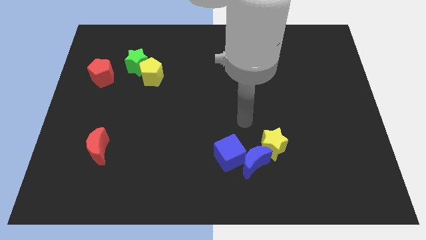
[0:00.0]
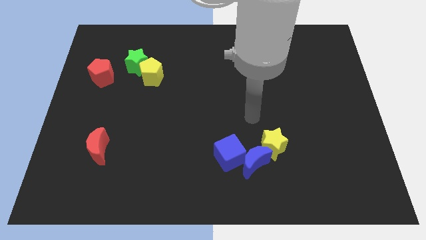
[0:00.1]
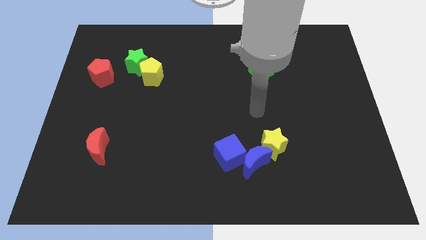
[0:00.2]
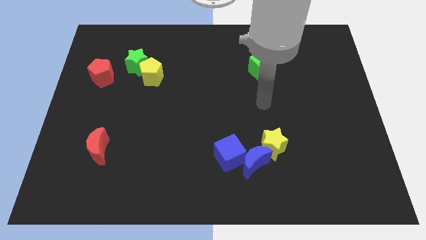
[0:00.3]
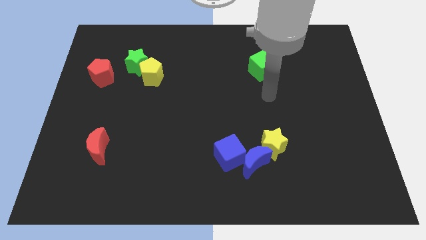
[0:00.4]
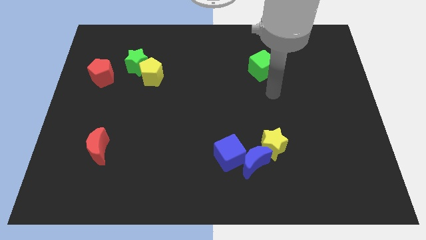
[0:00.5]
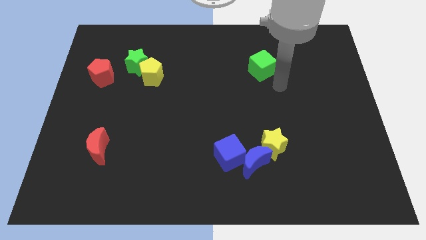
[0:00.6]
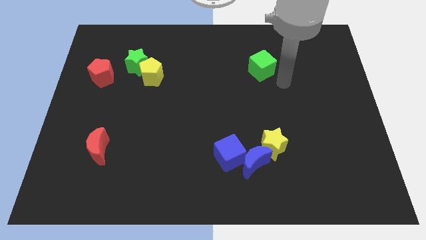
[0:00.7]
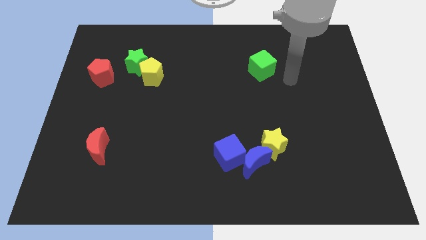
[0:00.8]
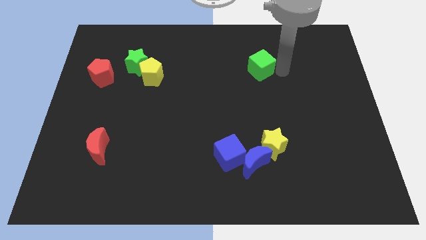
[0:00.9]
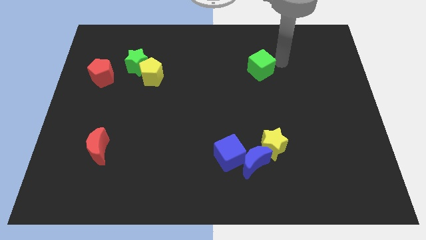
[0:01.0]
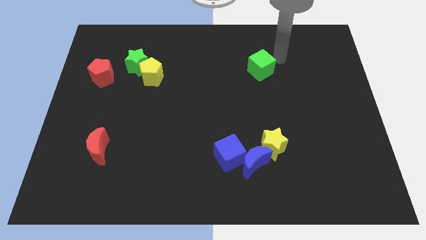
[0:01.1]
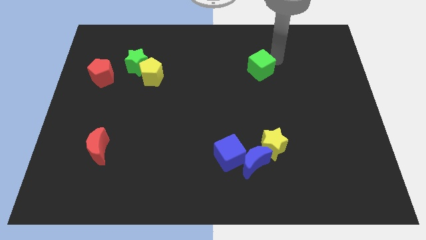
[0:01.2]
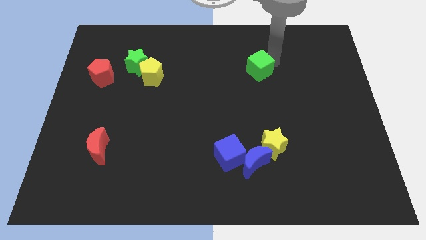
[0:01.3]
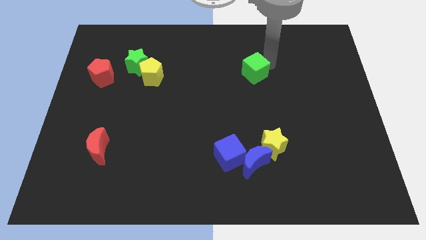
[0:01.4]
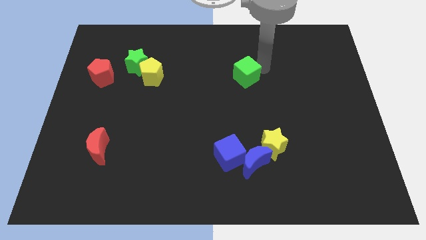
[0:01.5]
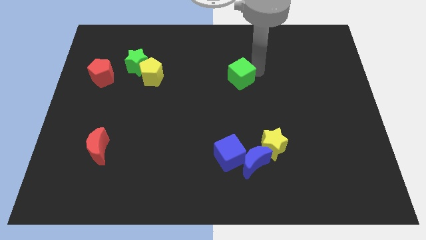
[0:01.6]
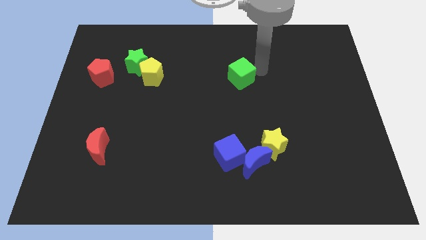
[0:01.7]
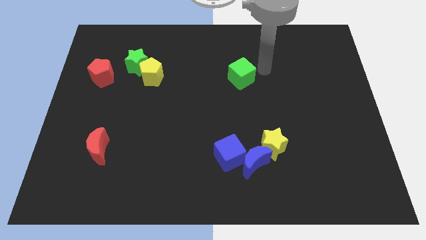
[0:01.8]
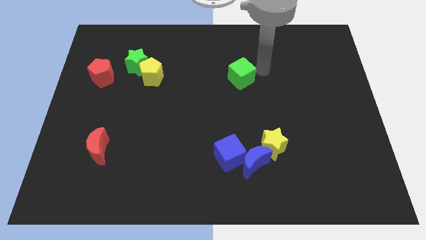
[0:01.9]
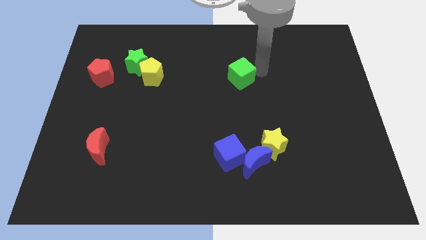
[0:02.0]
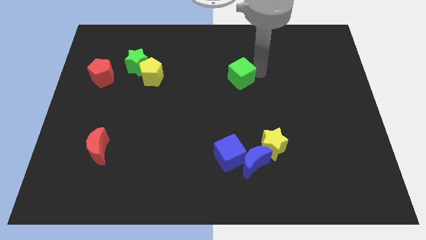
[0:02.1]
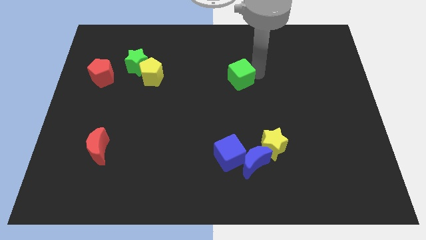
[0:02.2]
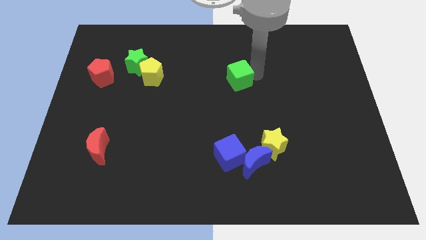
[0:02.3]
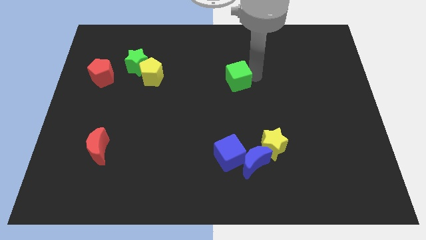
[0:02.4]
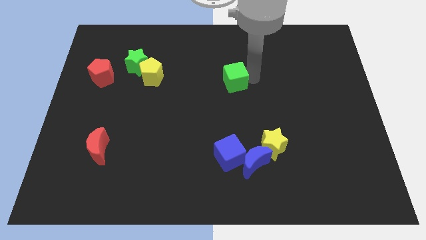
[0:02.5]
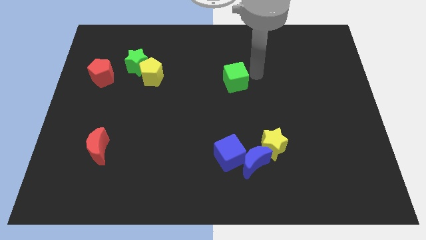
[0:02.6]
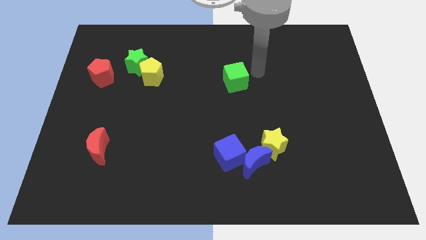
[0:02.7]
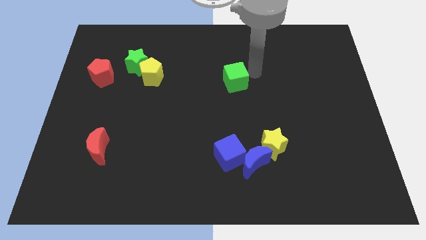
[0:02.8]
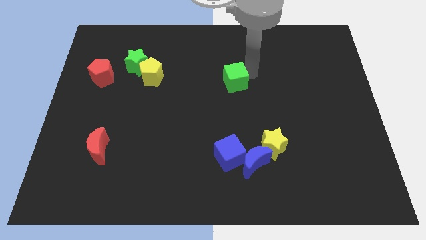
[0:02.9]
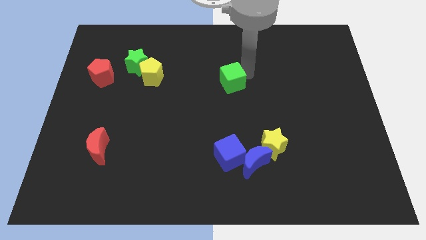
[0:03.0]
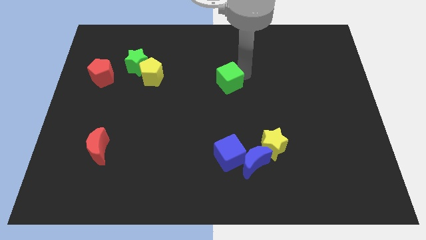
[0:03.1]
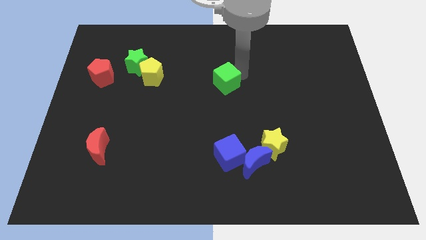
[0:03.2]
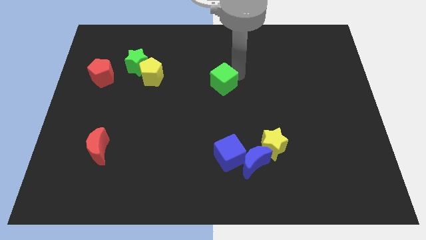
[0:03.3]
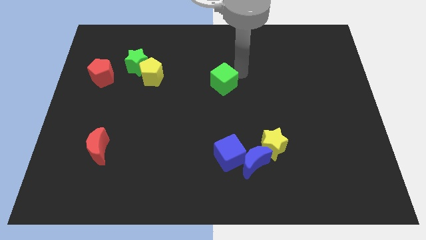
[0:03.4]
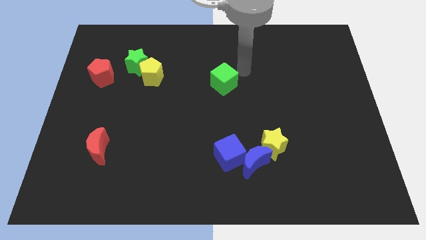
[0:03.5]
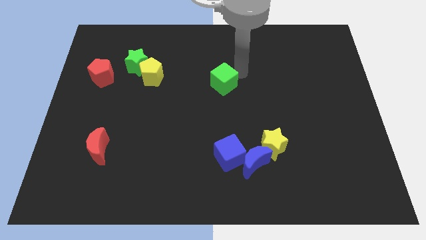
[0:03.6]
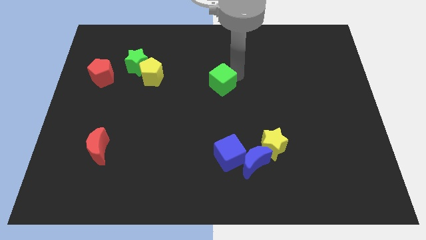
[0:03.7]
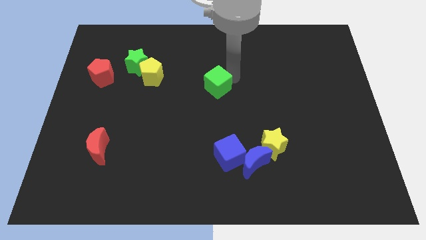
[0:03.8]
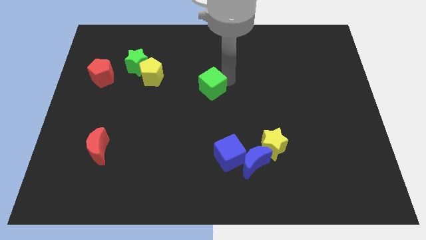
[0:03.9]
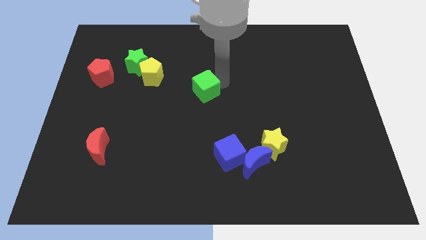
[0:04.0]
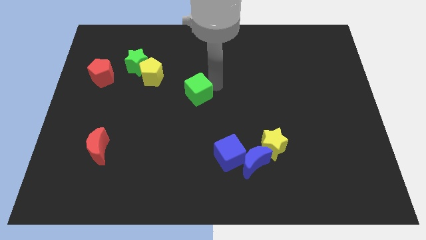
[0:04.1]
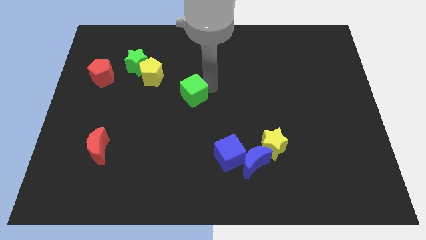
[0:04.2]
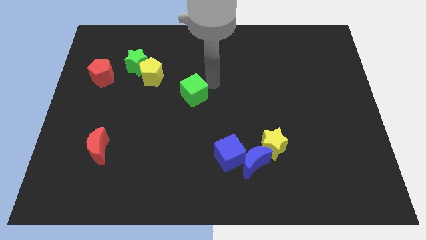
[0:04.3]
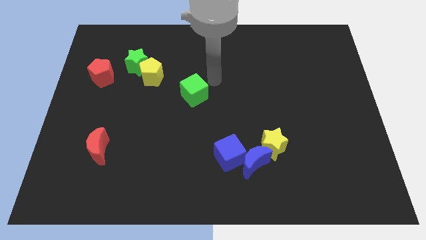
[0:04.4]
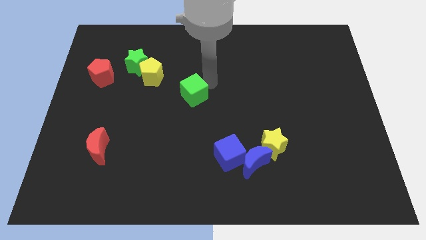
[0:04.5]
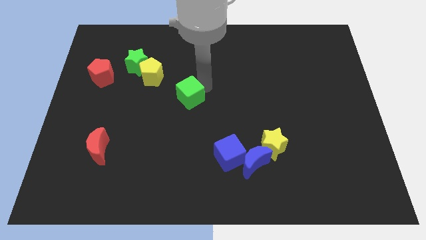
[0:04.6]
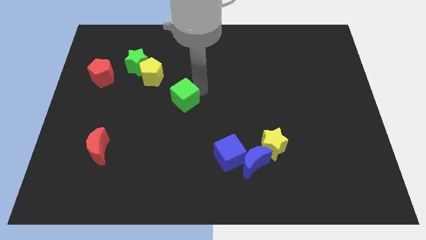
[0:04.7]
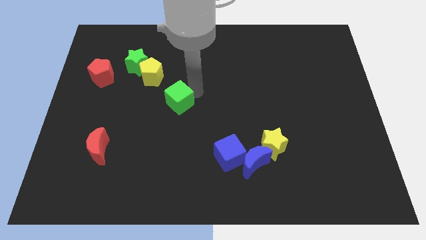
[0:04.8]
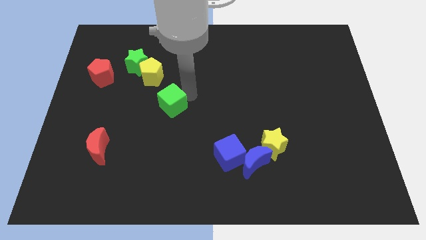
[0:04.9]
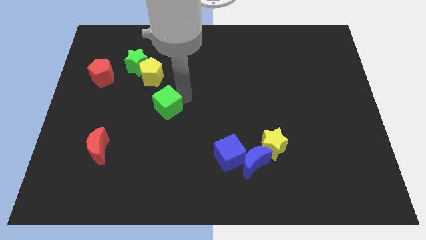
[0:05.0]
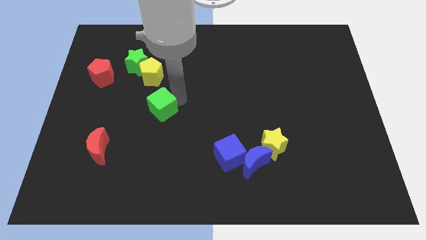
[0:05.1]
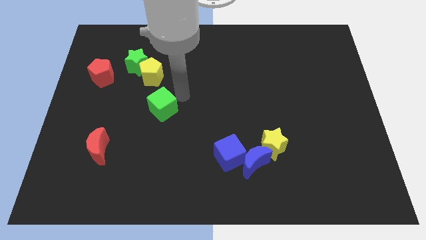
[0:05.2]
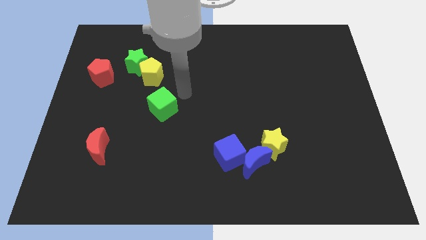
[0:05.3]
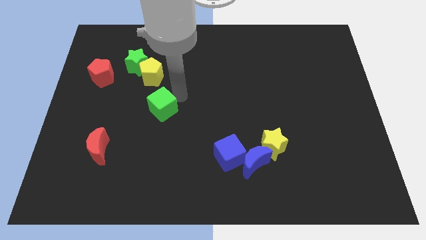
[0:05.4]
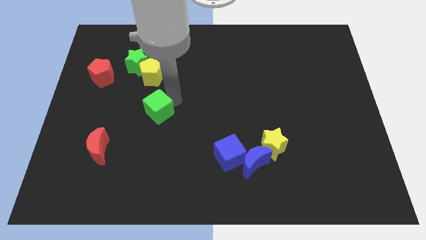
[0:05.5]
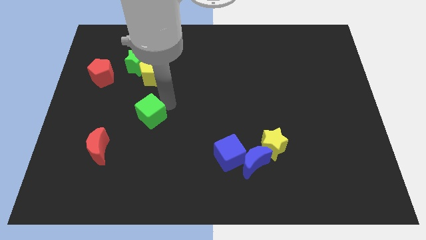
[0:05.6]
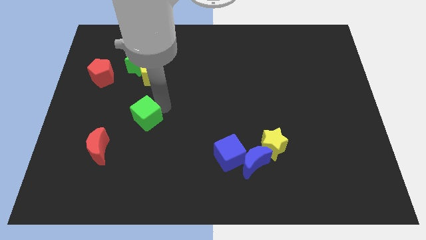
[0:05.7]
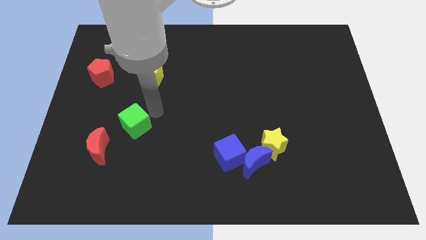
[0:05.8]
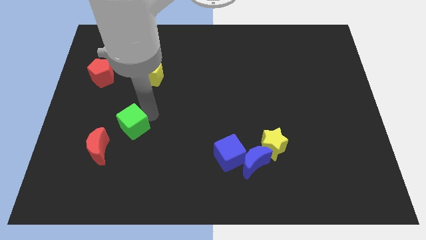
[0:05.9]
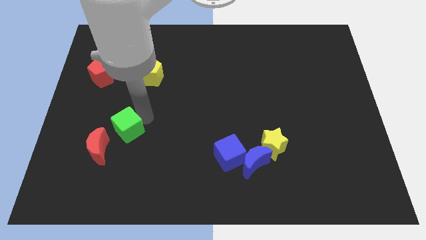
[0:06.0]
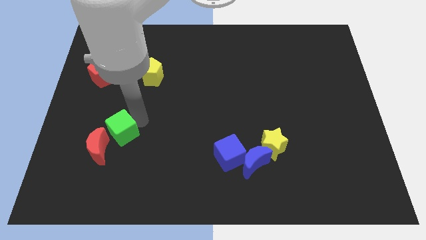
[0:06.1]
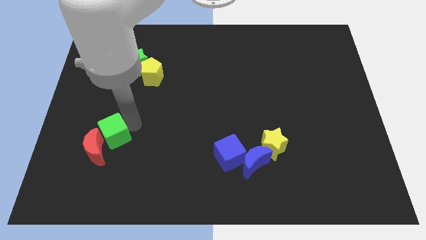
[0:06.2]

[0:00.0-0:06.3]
push the green cube towards the red moon

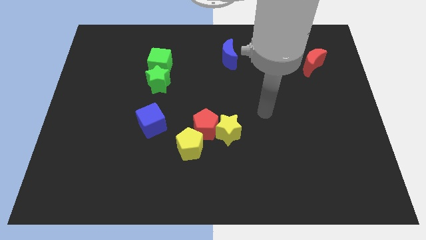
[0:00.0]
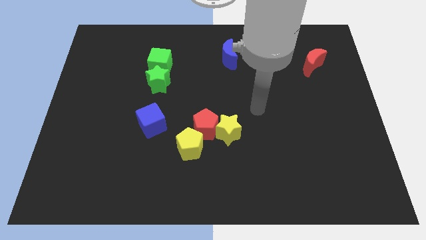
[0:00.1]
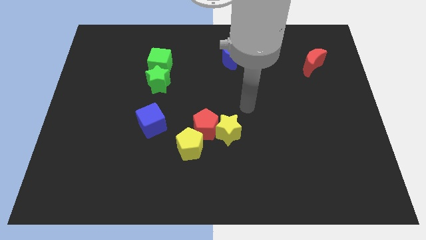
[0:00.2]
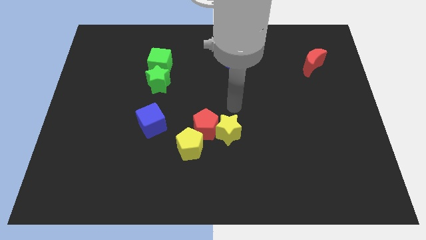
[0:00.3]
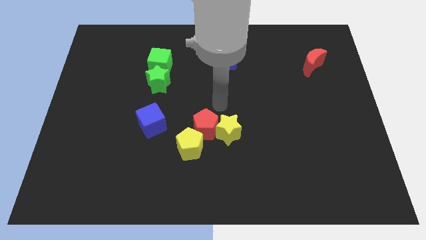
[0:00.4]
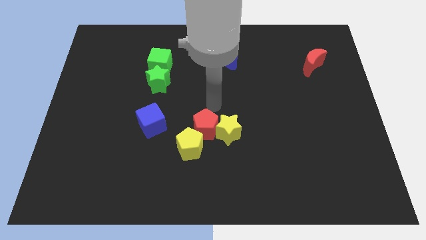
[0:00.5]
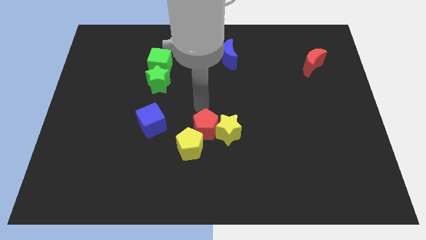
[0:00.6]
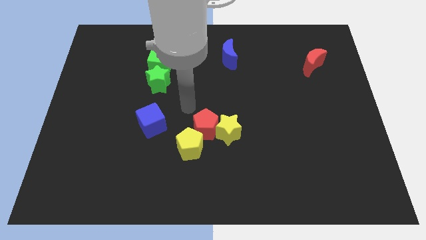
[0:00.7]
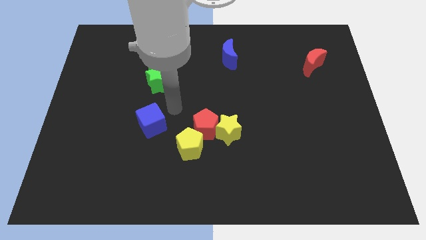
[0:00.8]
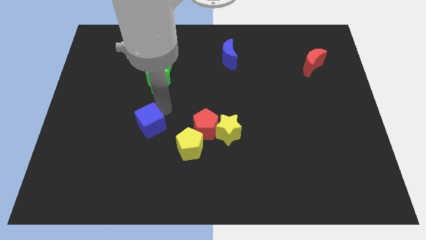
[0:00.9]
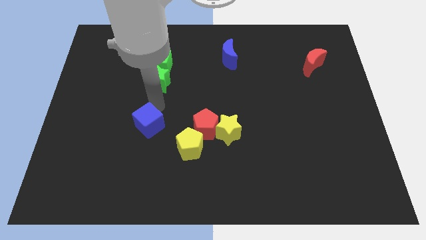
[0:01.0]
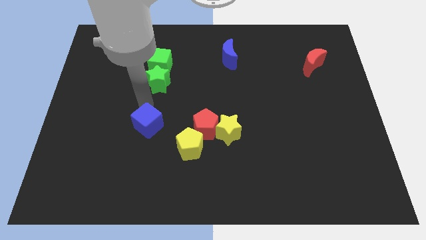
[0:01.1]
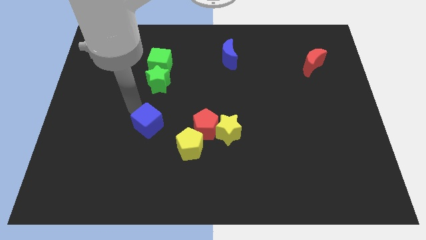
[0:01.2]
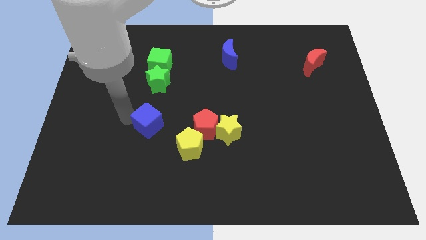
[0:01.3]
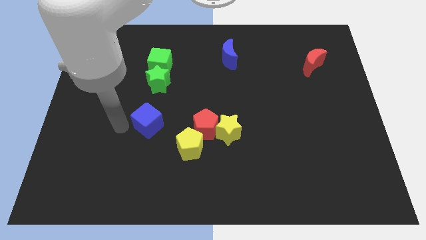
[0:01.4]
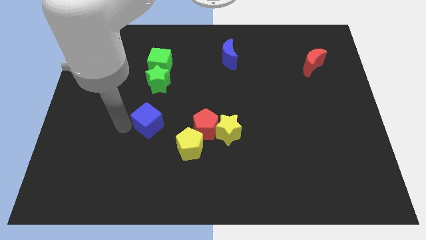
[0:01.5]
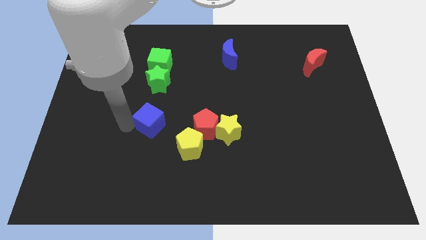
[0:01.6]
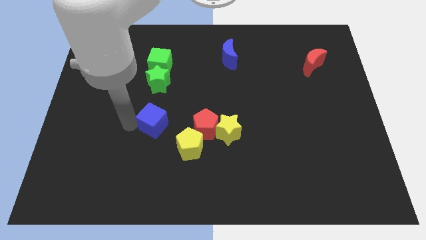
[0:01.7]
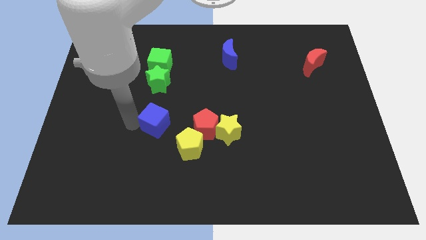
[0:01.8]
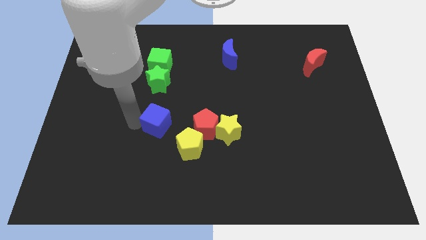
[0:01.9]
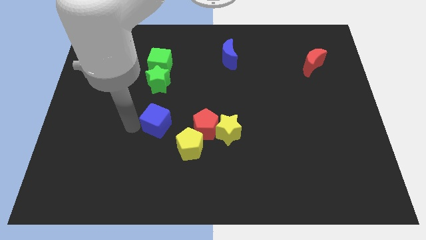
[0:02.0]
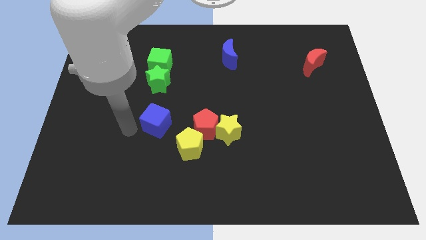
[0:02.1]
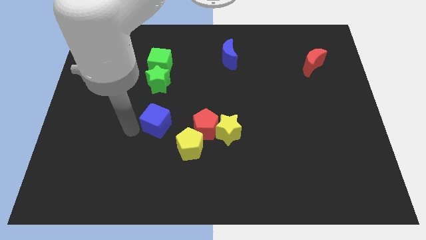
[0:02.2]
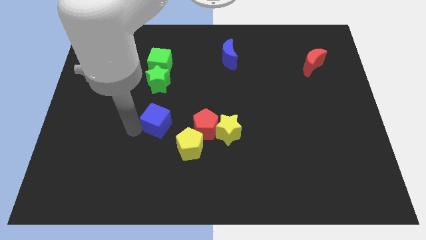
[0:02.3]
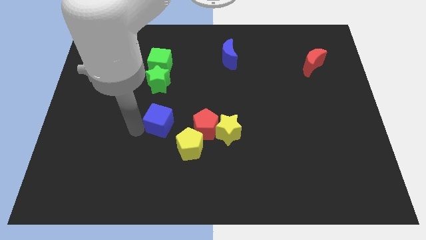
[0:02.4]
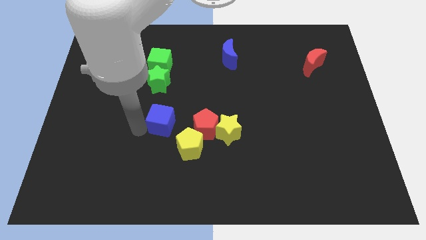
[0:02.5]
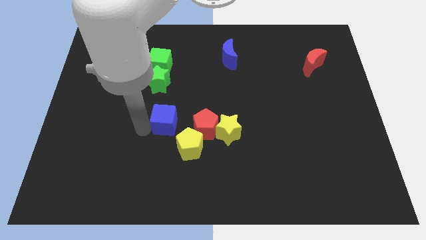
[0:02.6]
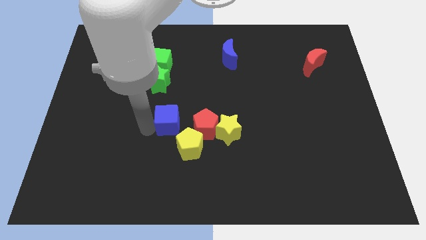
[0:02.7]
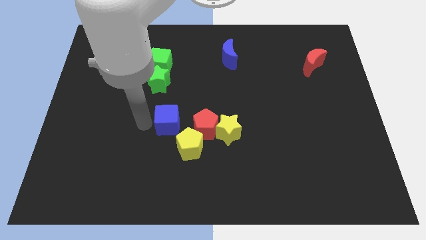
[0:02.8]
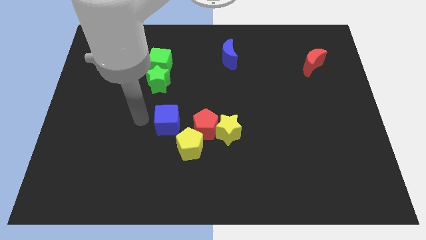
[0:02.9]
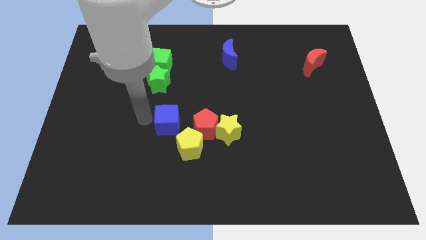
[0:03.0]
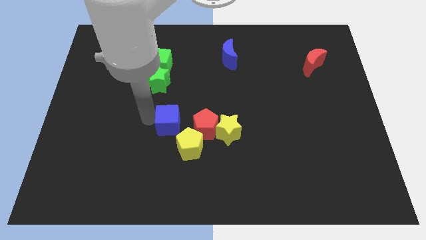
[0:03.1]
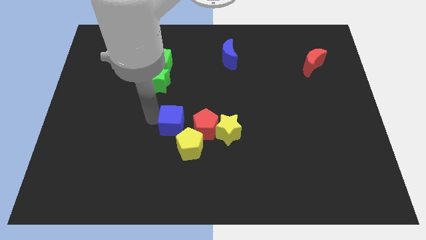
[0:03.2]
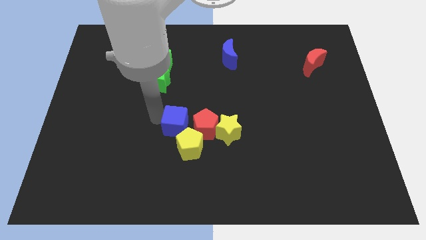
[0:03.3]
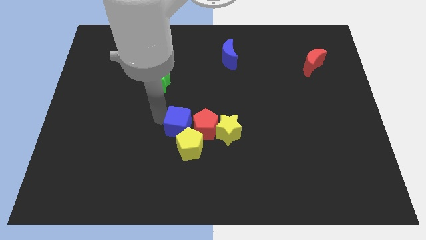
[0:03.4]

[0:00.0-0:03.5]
push the blue cube towards the red pentagon
